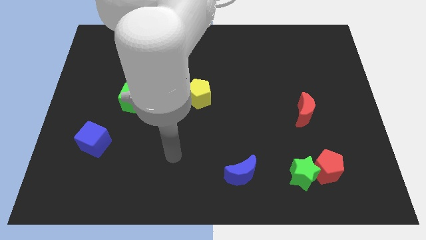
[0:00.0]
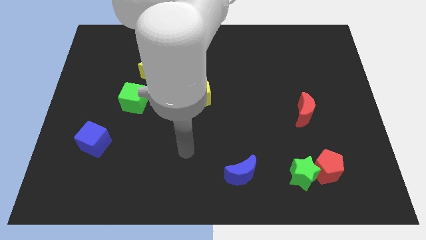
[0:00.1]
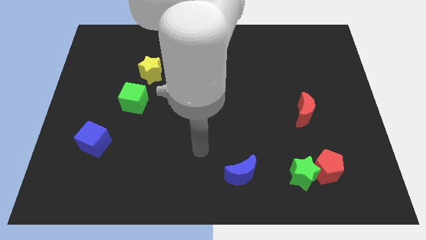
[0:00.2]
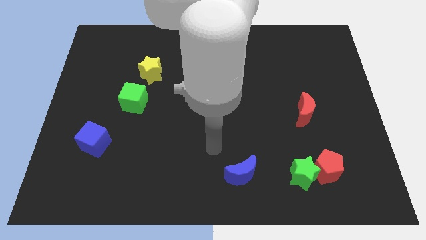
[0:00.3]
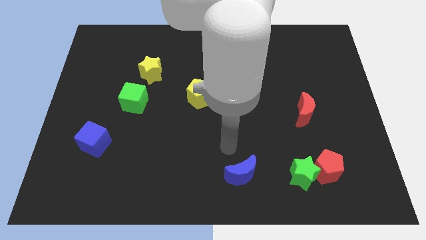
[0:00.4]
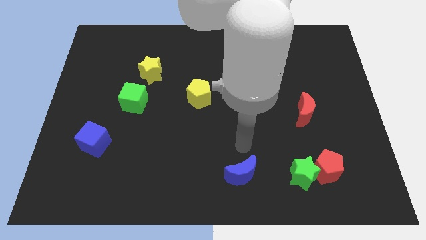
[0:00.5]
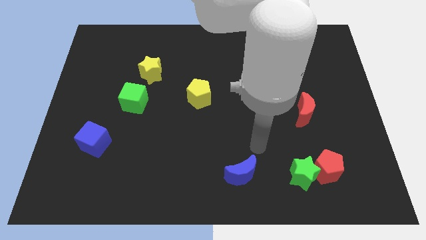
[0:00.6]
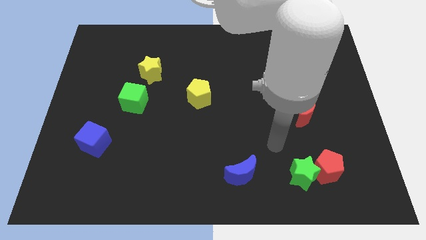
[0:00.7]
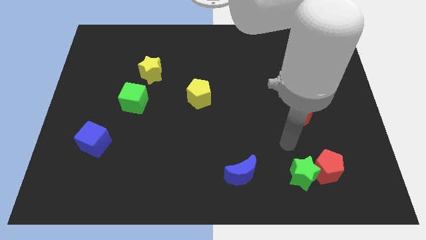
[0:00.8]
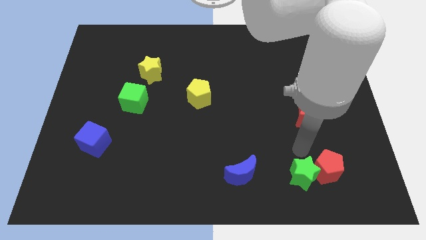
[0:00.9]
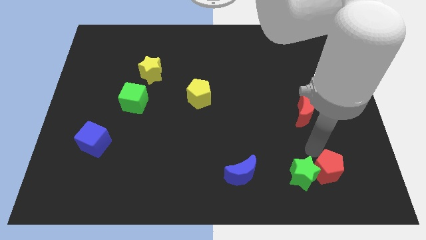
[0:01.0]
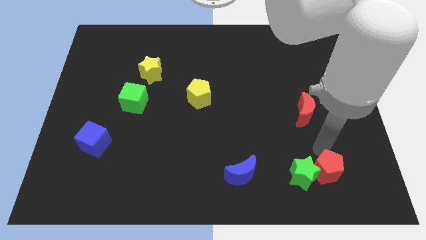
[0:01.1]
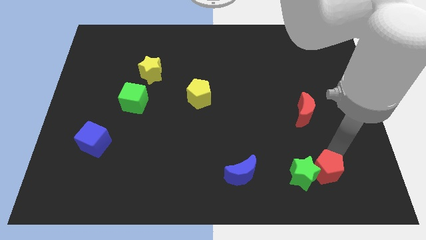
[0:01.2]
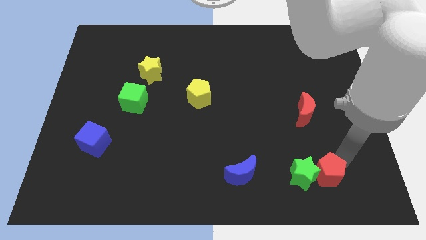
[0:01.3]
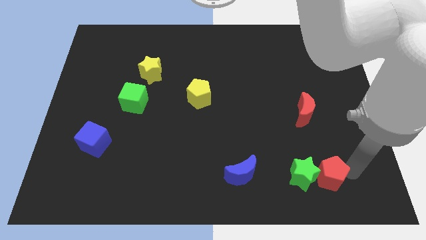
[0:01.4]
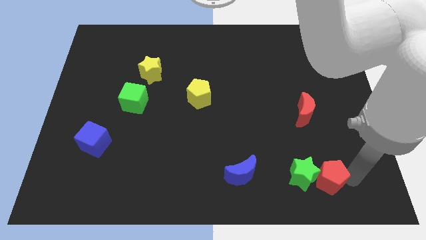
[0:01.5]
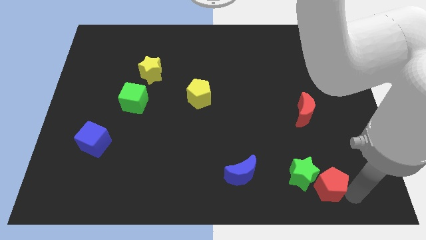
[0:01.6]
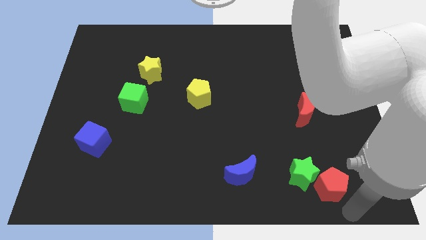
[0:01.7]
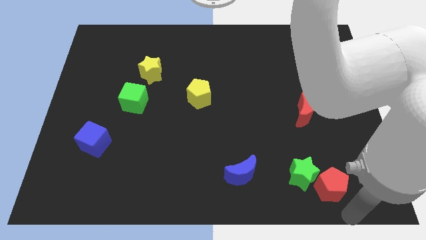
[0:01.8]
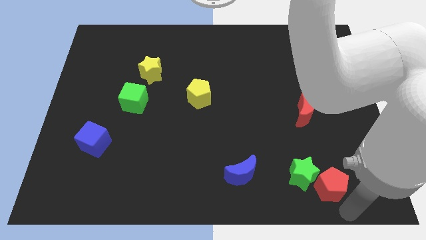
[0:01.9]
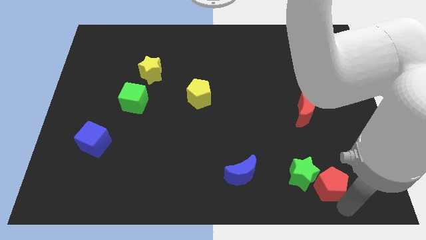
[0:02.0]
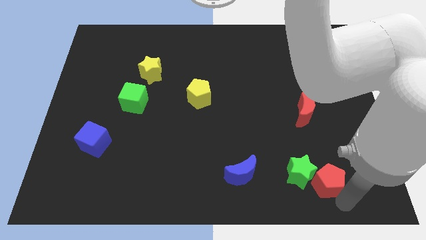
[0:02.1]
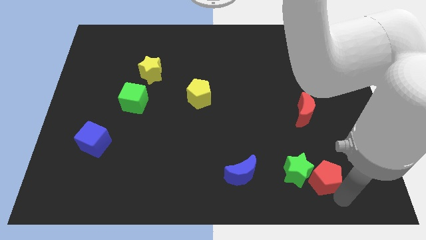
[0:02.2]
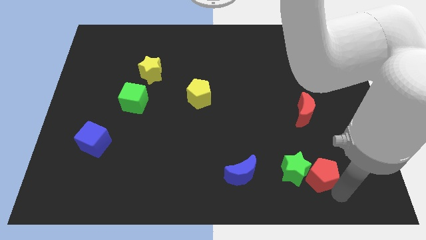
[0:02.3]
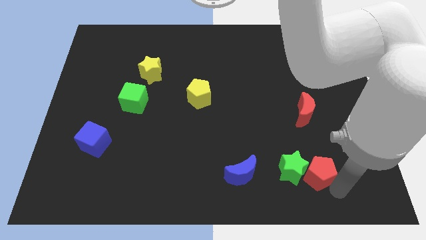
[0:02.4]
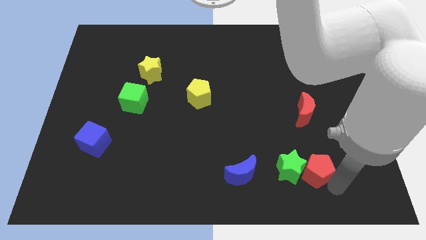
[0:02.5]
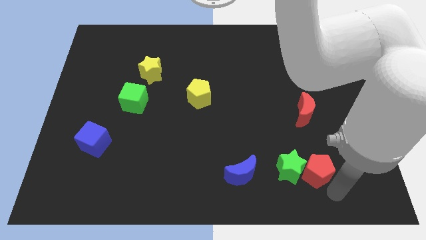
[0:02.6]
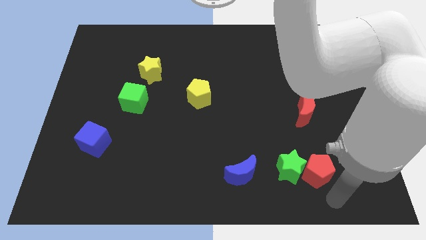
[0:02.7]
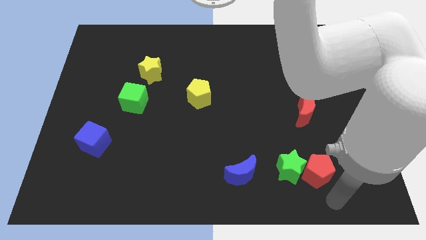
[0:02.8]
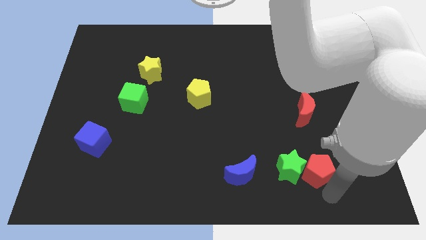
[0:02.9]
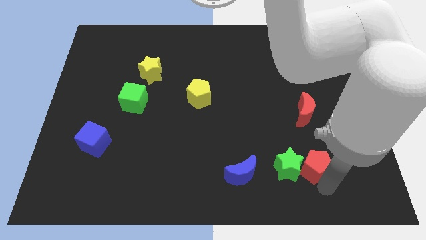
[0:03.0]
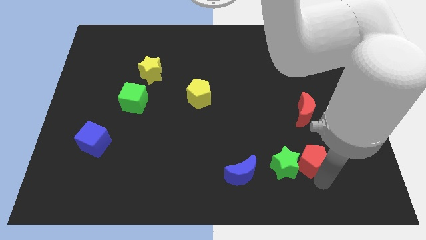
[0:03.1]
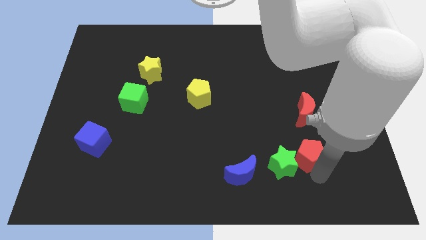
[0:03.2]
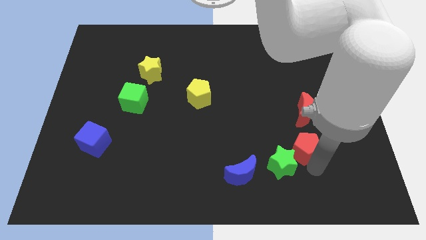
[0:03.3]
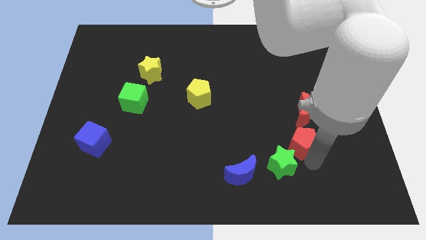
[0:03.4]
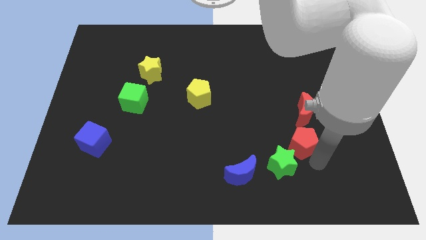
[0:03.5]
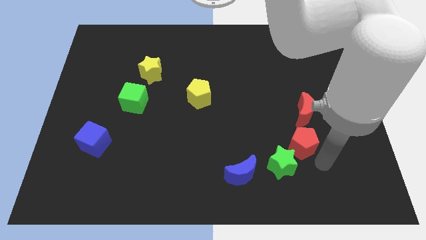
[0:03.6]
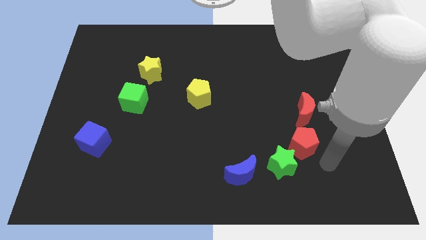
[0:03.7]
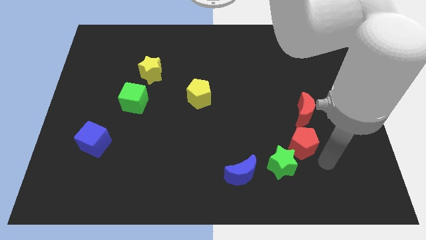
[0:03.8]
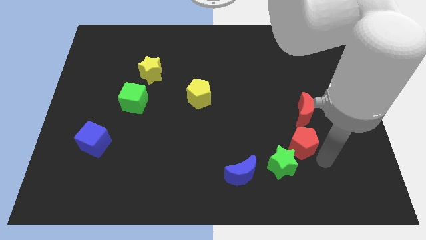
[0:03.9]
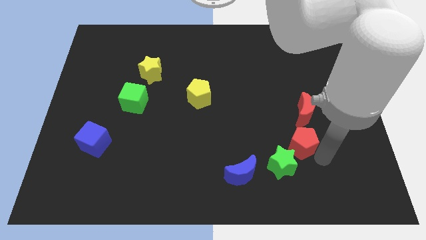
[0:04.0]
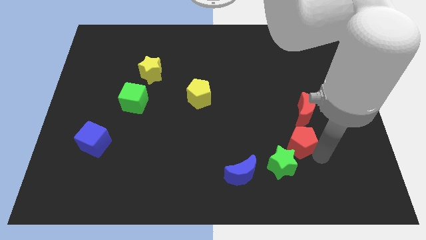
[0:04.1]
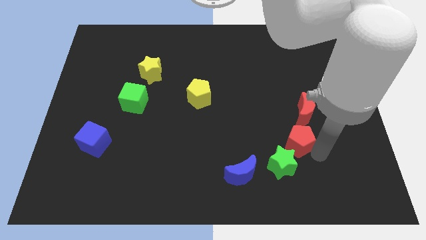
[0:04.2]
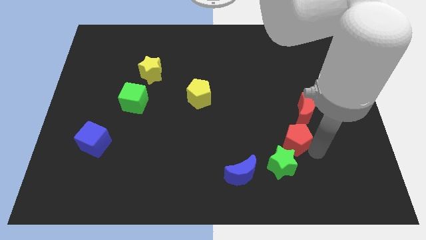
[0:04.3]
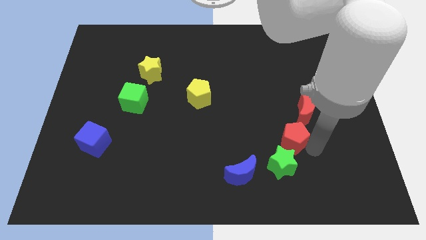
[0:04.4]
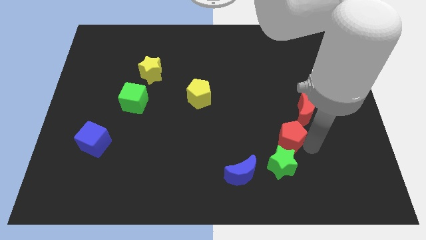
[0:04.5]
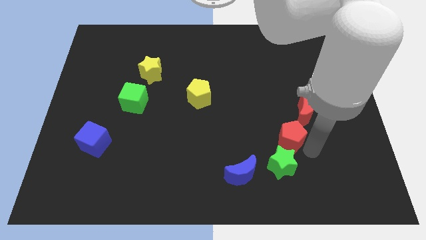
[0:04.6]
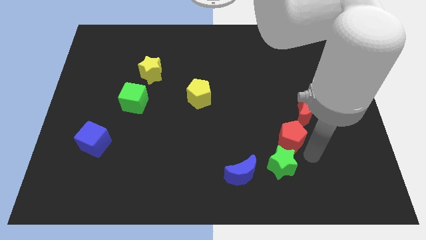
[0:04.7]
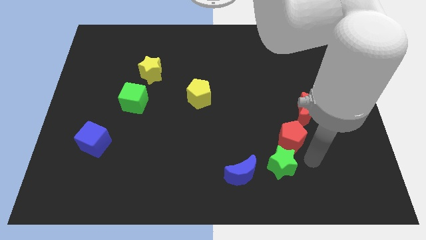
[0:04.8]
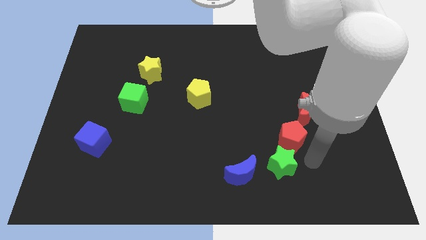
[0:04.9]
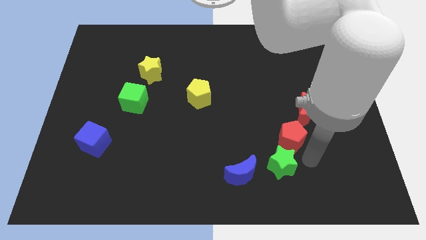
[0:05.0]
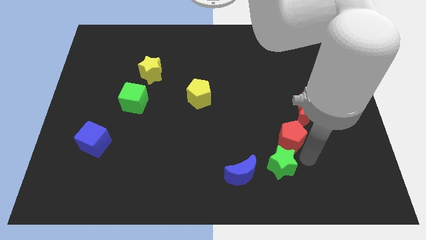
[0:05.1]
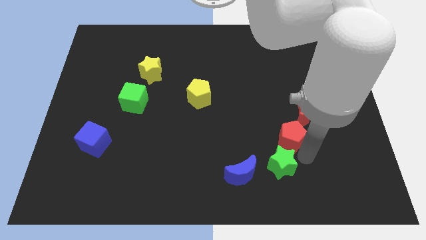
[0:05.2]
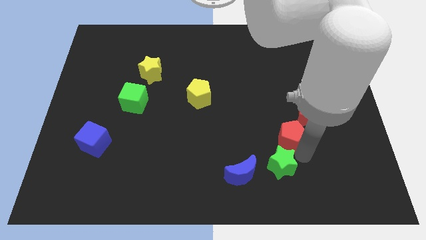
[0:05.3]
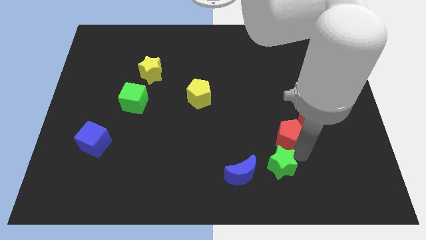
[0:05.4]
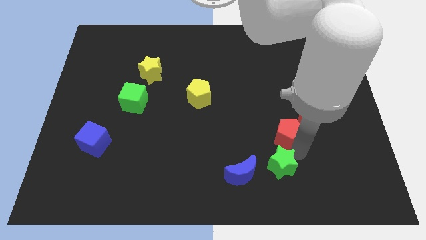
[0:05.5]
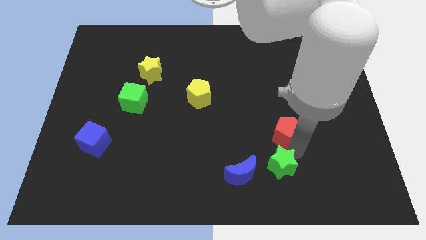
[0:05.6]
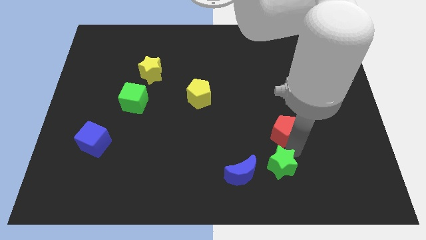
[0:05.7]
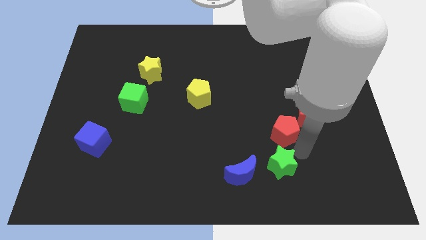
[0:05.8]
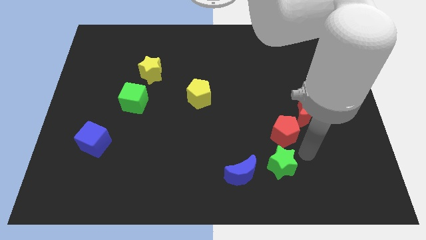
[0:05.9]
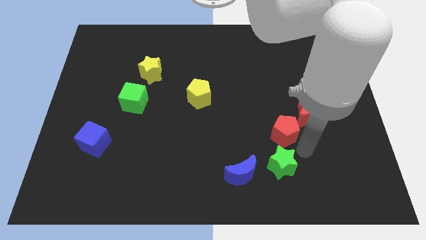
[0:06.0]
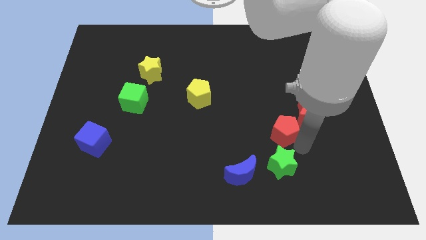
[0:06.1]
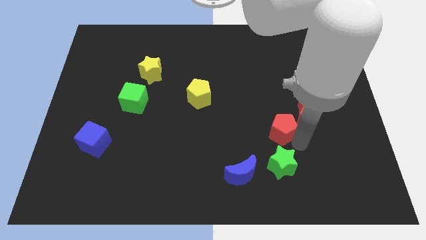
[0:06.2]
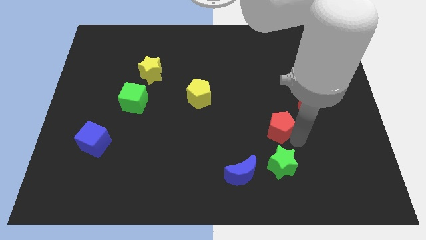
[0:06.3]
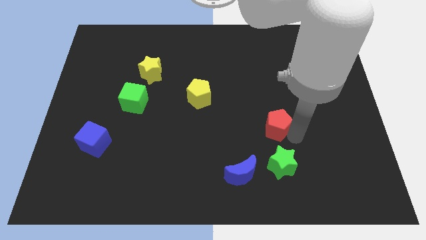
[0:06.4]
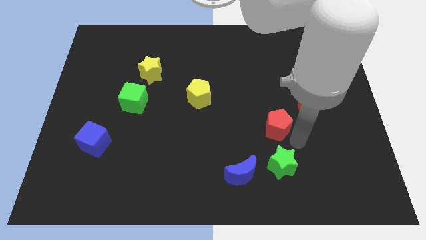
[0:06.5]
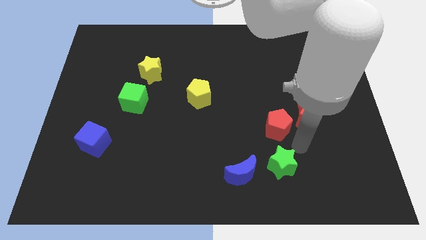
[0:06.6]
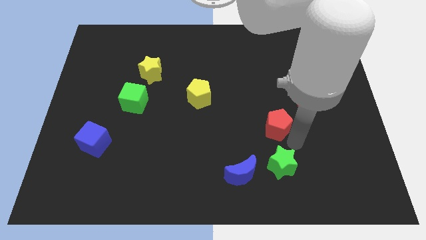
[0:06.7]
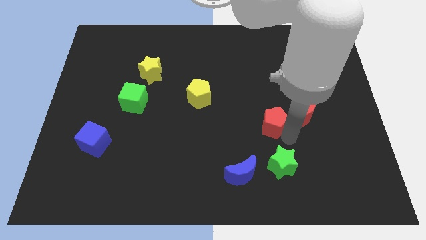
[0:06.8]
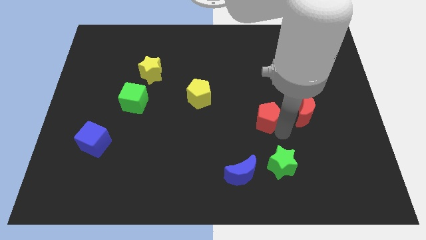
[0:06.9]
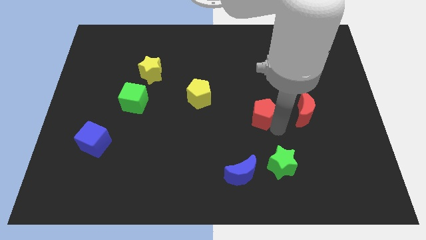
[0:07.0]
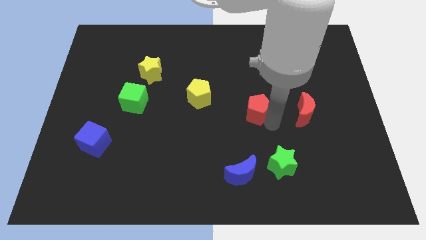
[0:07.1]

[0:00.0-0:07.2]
slide the red pentagon up and left diagonally

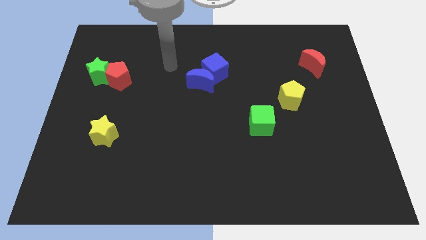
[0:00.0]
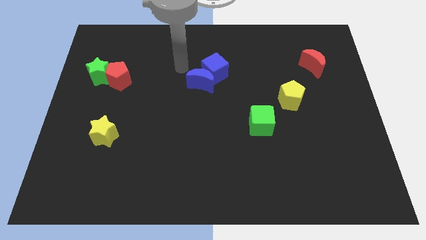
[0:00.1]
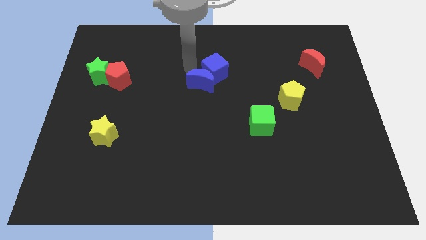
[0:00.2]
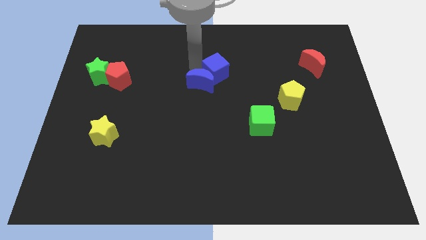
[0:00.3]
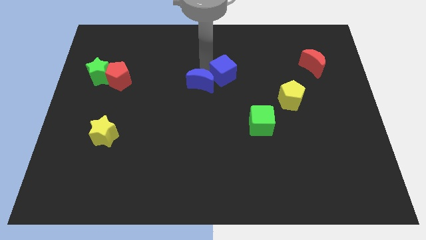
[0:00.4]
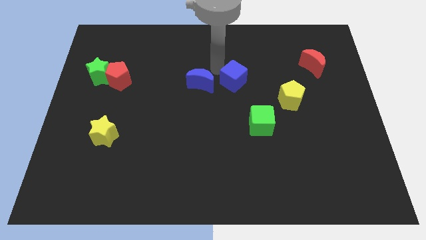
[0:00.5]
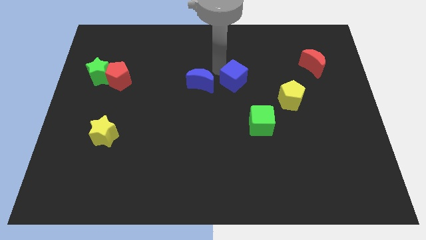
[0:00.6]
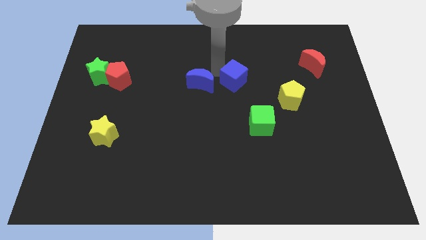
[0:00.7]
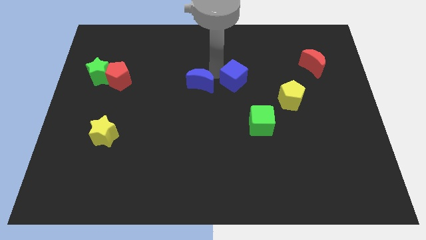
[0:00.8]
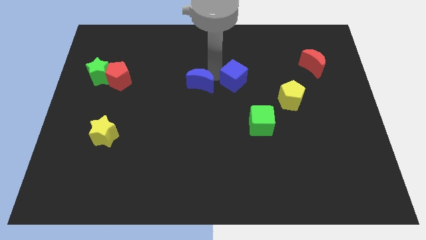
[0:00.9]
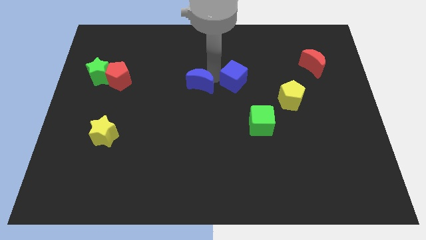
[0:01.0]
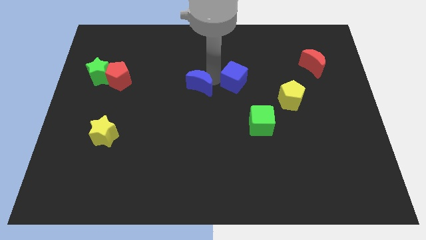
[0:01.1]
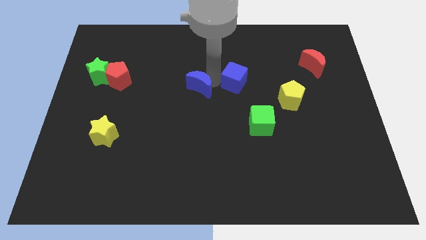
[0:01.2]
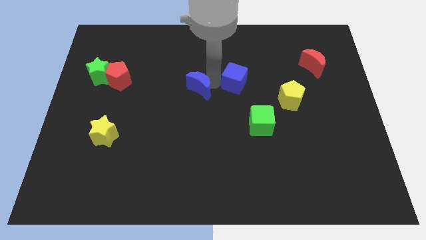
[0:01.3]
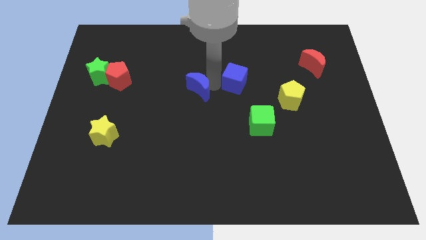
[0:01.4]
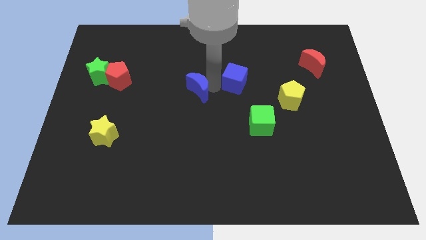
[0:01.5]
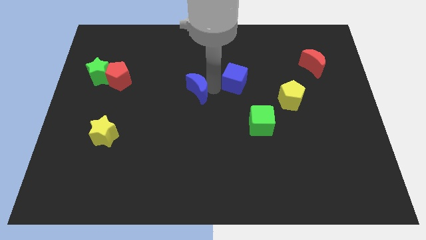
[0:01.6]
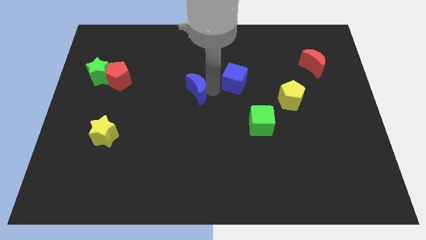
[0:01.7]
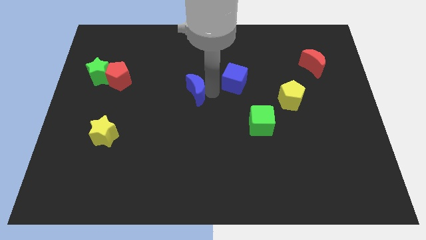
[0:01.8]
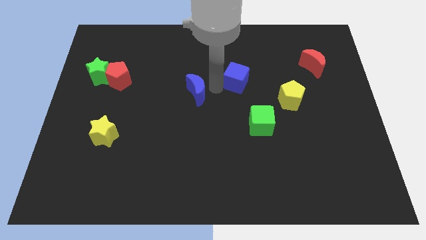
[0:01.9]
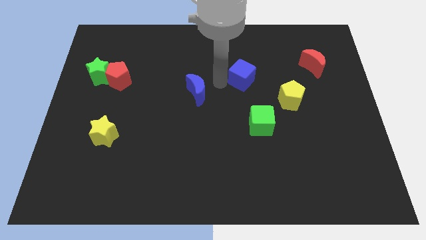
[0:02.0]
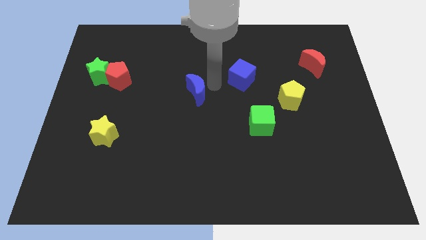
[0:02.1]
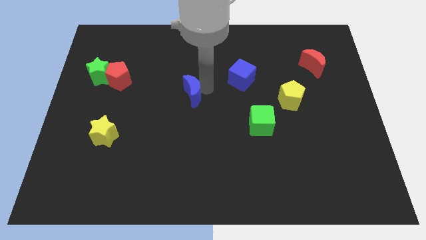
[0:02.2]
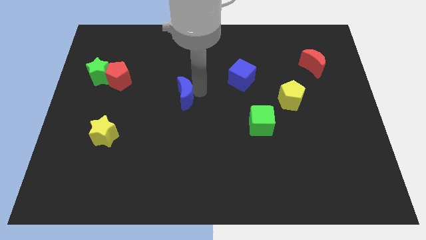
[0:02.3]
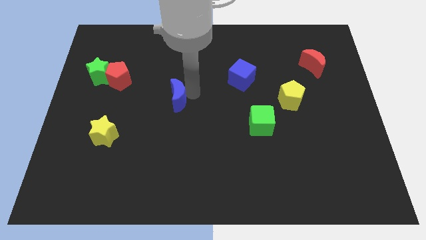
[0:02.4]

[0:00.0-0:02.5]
slide the blue moon a little down and left diagonally
